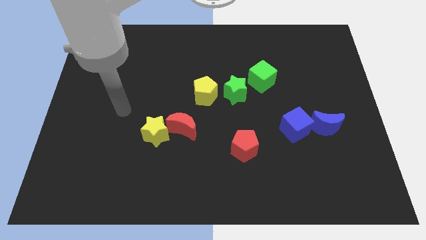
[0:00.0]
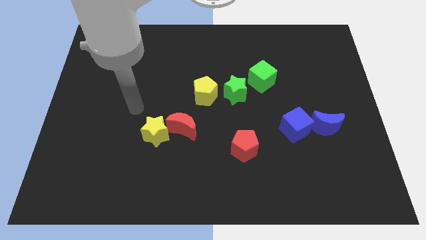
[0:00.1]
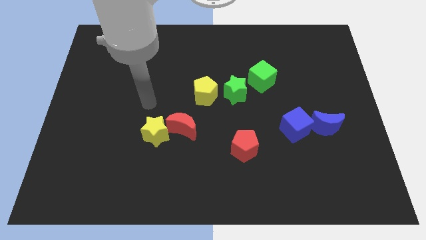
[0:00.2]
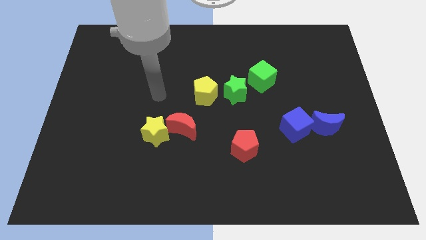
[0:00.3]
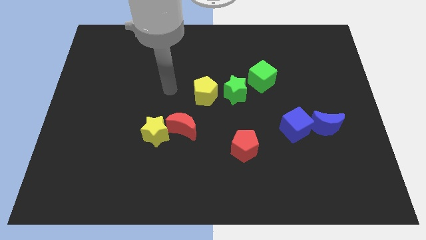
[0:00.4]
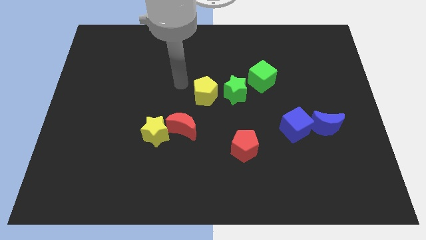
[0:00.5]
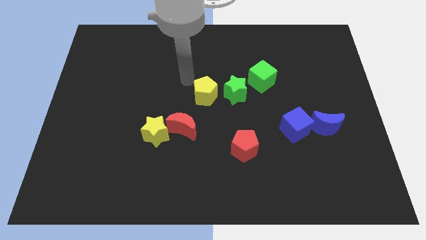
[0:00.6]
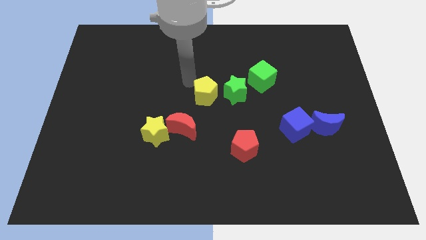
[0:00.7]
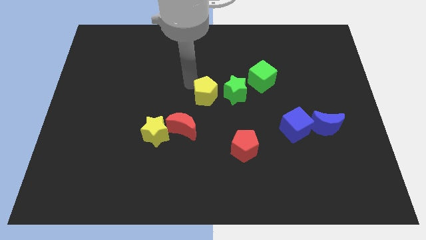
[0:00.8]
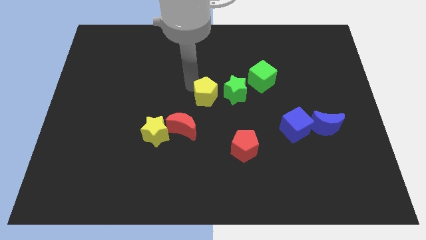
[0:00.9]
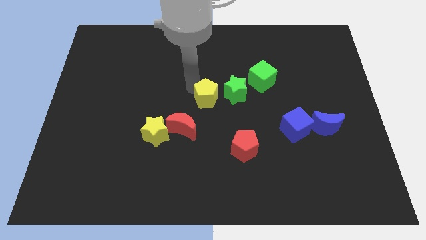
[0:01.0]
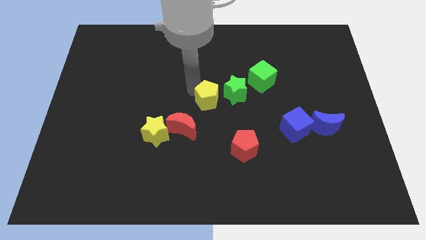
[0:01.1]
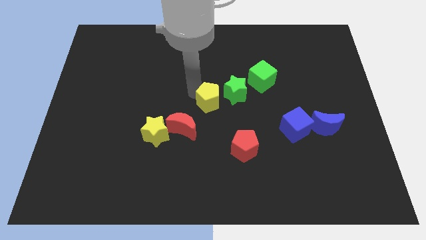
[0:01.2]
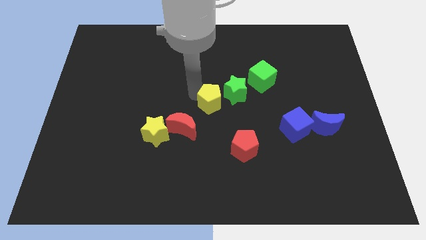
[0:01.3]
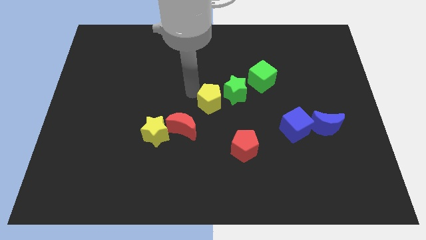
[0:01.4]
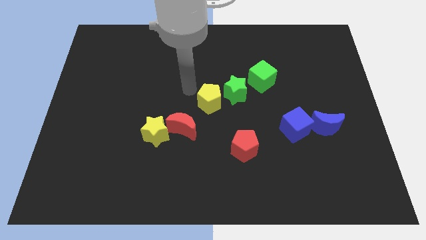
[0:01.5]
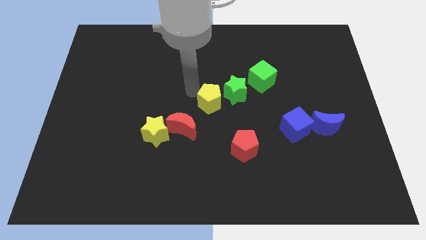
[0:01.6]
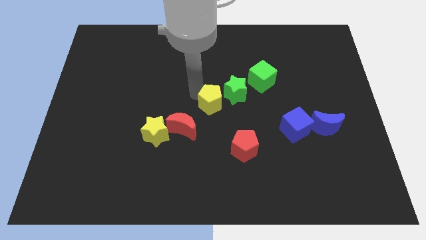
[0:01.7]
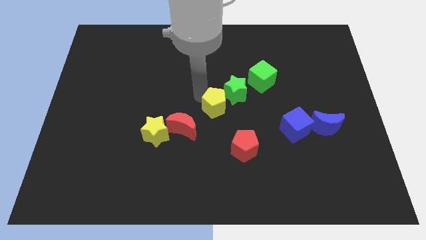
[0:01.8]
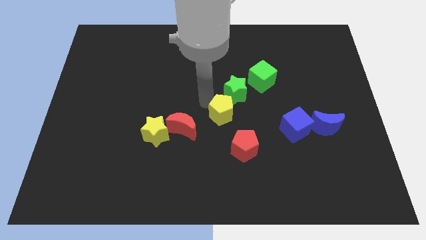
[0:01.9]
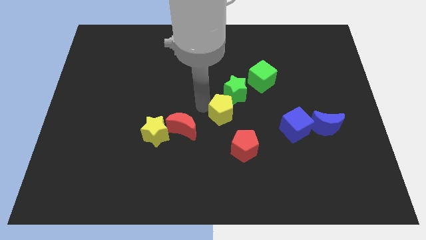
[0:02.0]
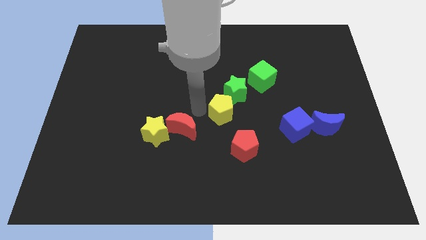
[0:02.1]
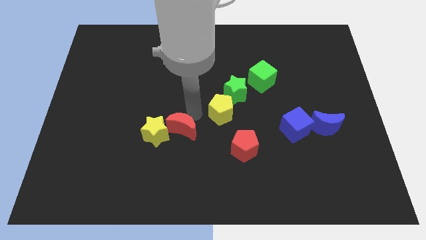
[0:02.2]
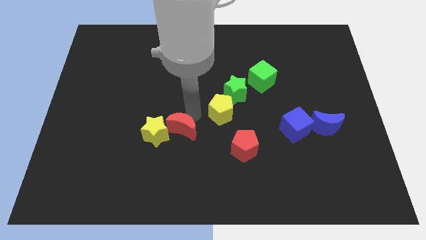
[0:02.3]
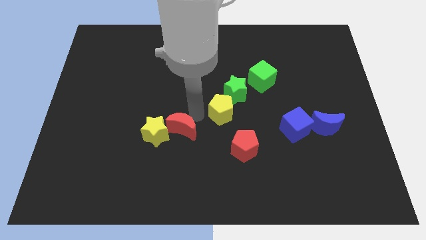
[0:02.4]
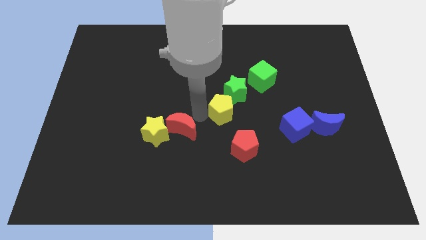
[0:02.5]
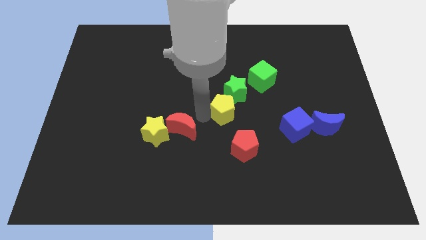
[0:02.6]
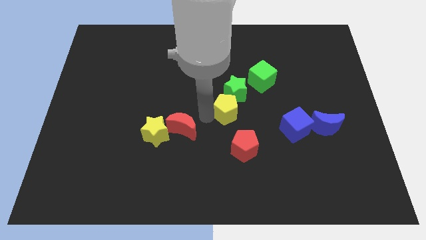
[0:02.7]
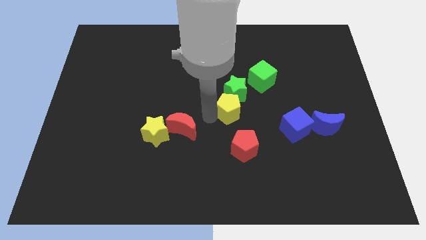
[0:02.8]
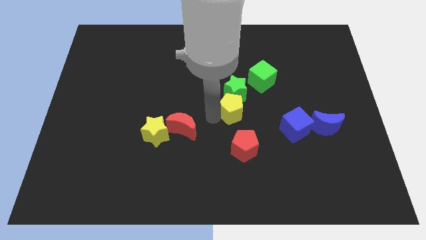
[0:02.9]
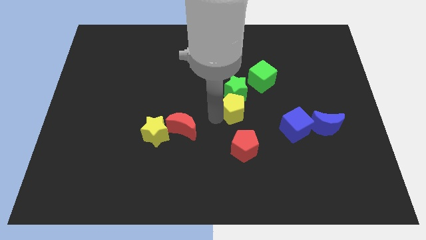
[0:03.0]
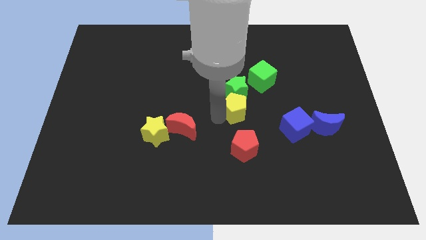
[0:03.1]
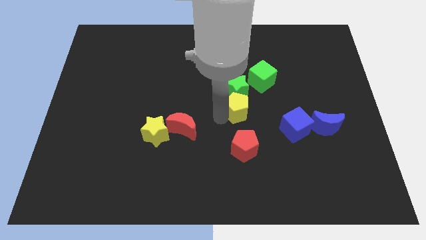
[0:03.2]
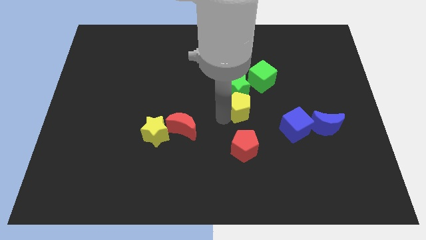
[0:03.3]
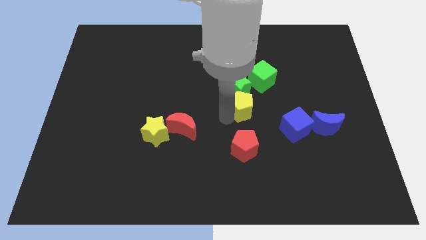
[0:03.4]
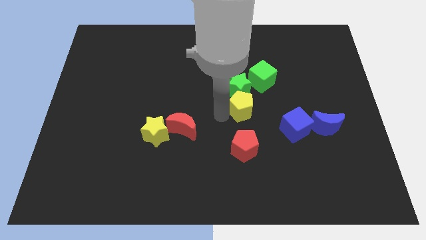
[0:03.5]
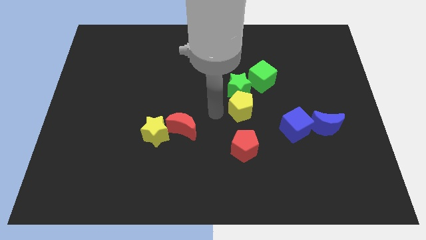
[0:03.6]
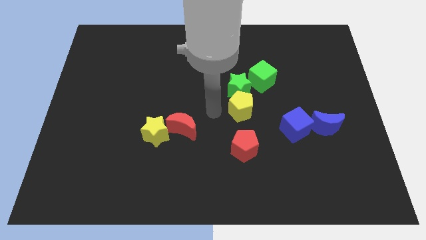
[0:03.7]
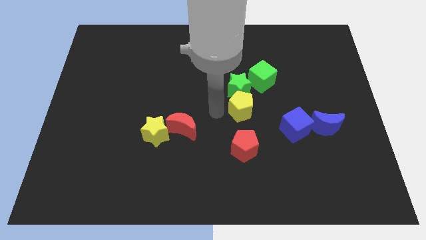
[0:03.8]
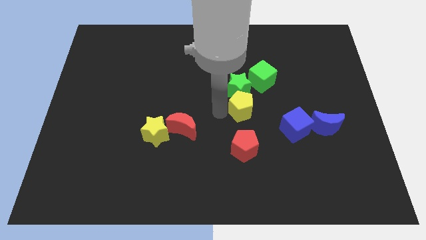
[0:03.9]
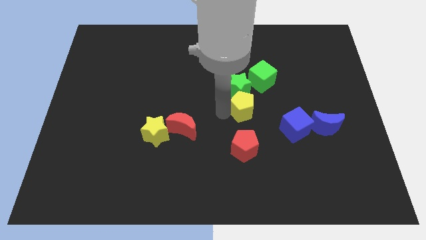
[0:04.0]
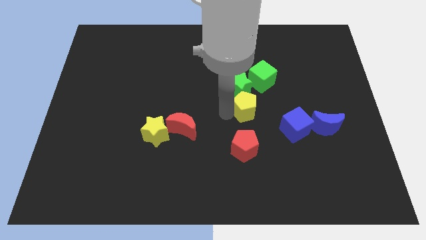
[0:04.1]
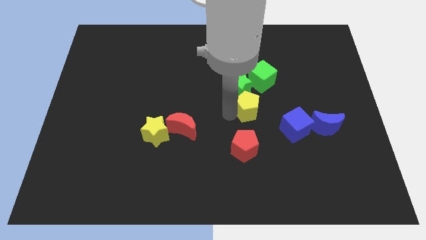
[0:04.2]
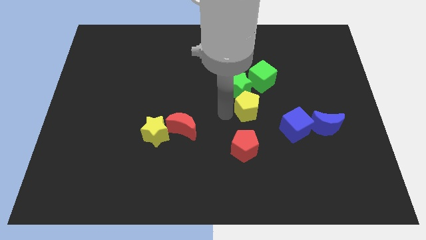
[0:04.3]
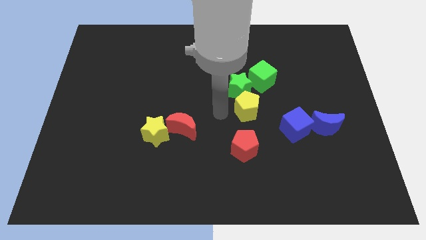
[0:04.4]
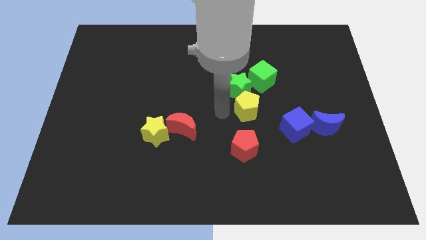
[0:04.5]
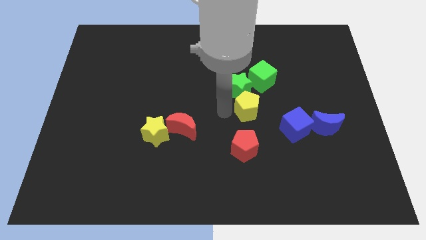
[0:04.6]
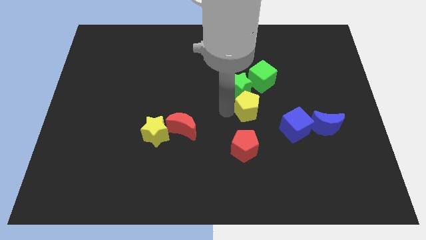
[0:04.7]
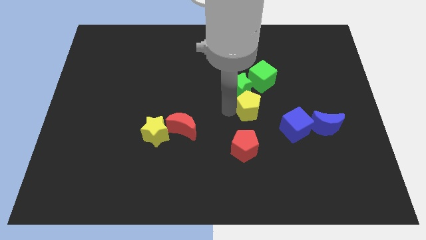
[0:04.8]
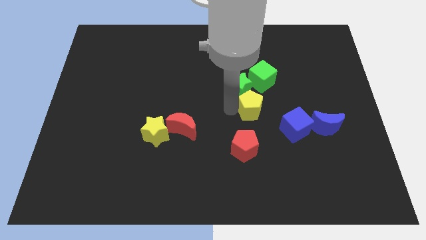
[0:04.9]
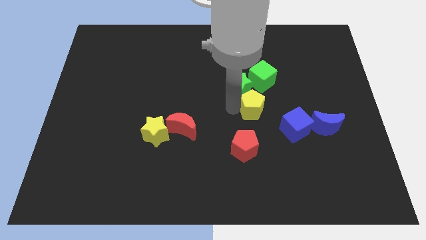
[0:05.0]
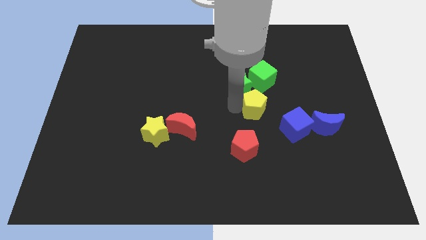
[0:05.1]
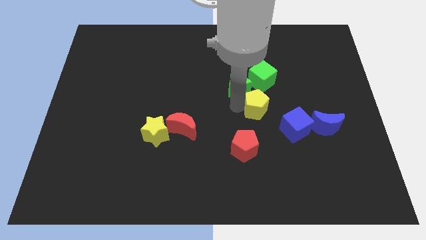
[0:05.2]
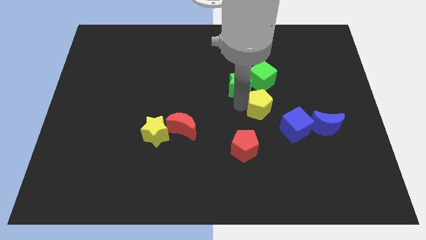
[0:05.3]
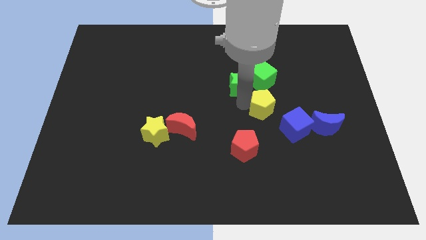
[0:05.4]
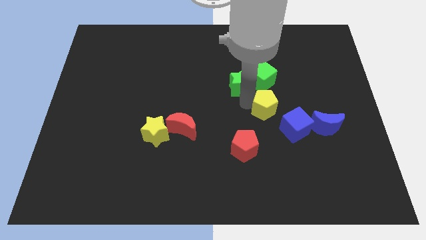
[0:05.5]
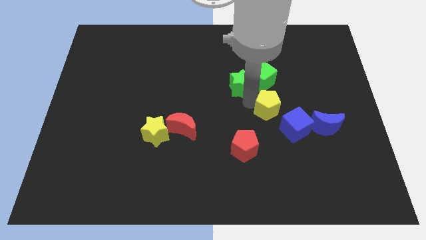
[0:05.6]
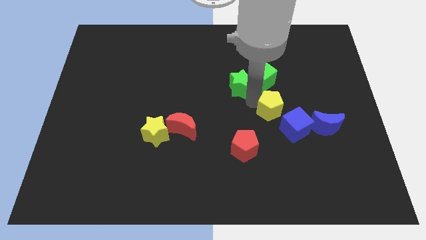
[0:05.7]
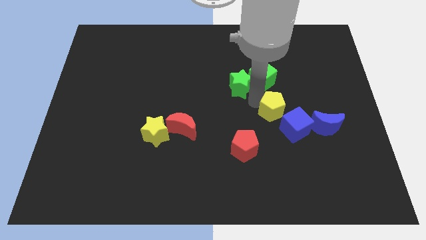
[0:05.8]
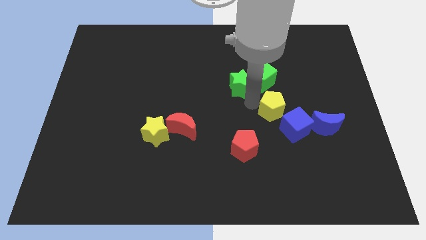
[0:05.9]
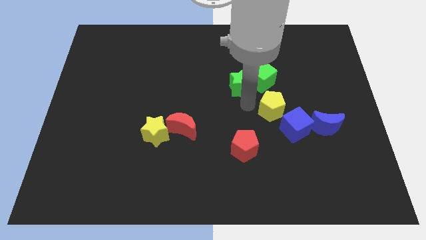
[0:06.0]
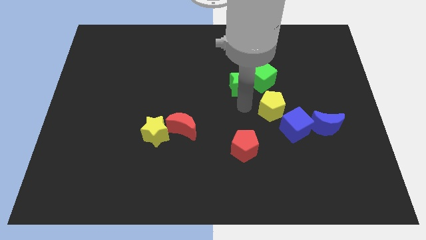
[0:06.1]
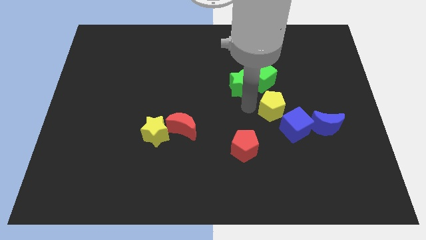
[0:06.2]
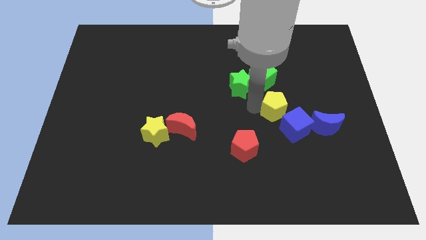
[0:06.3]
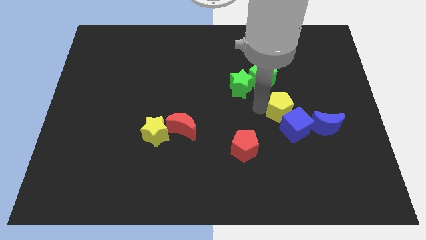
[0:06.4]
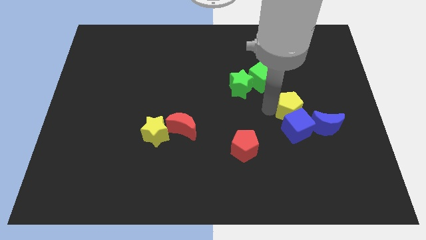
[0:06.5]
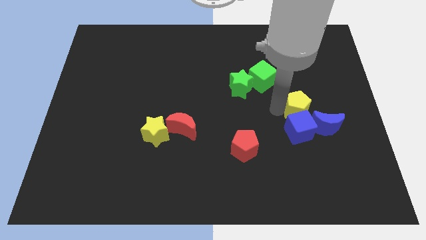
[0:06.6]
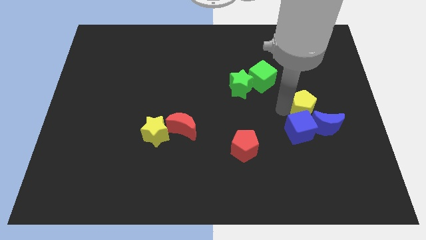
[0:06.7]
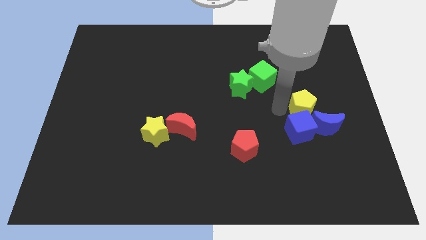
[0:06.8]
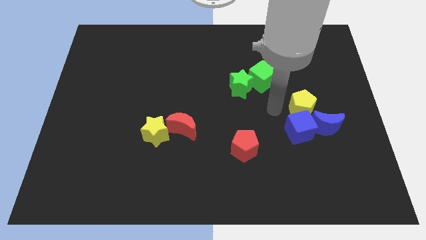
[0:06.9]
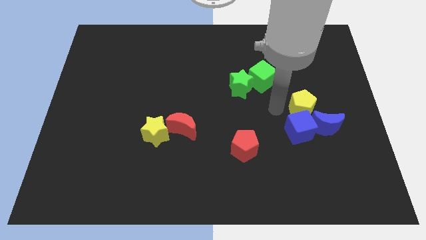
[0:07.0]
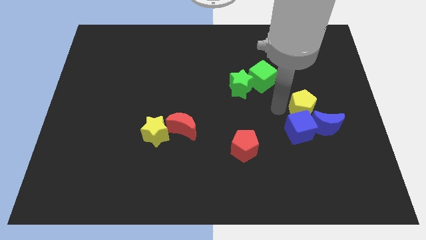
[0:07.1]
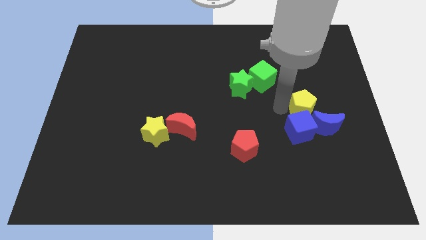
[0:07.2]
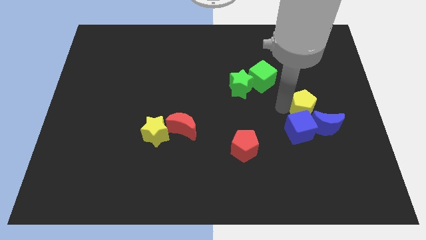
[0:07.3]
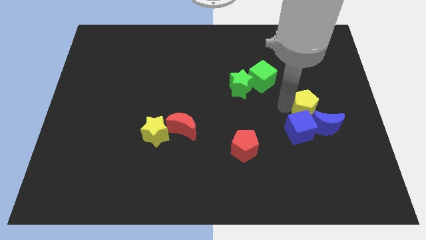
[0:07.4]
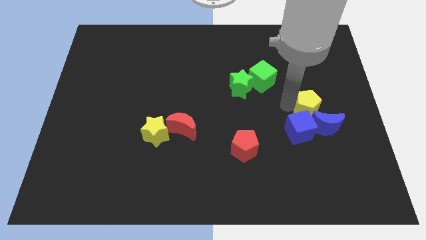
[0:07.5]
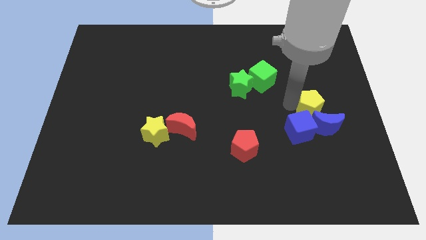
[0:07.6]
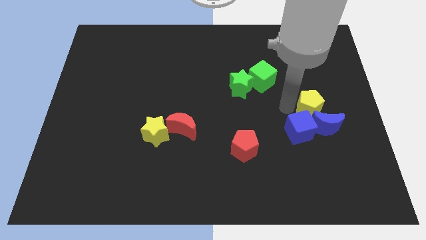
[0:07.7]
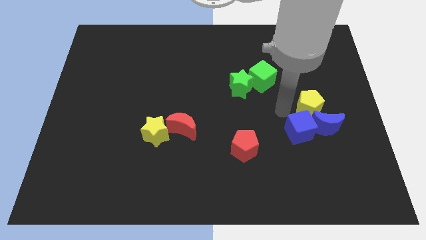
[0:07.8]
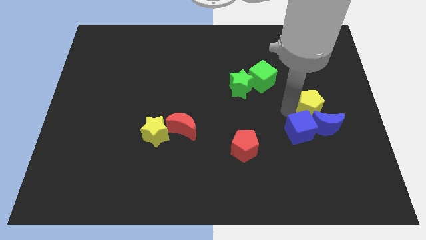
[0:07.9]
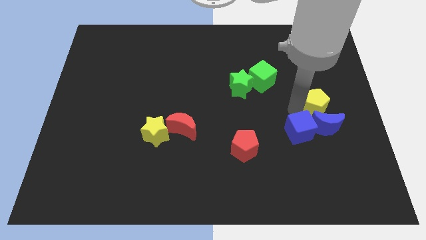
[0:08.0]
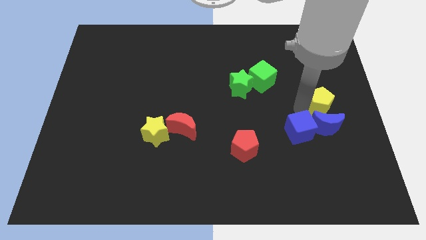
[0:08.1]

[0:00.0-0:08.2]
slide the yellow pentagon to the right side
